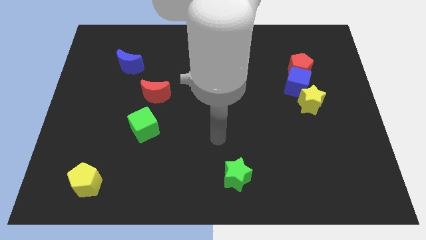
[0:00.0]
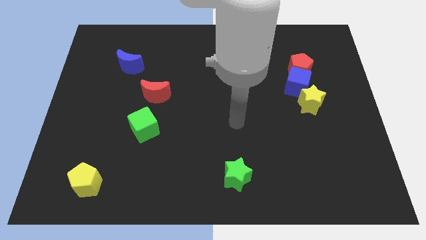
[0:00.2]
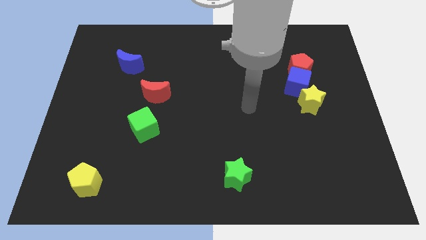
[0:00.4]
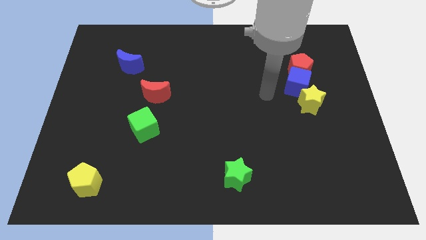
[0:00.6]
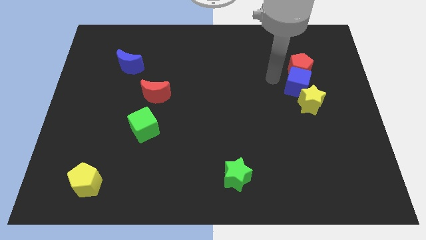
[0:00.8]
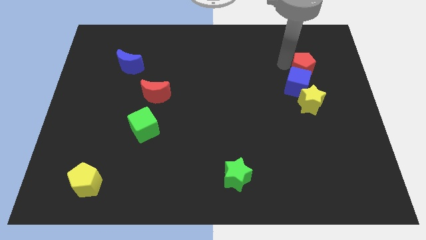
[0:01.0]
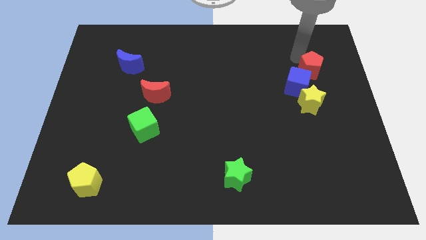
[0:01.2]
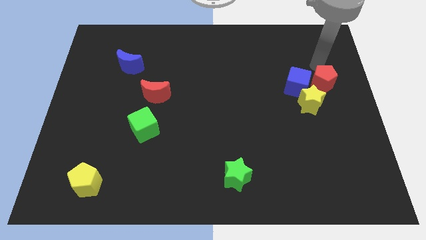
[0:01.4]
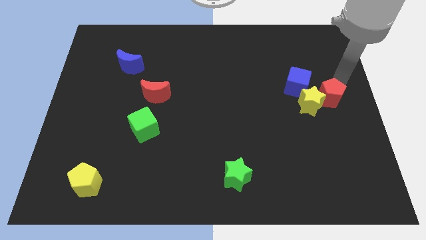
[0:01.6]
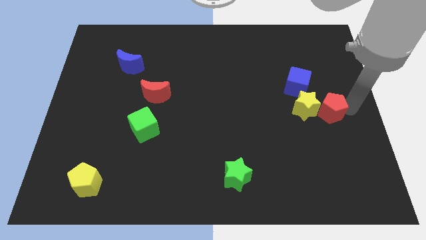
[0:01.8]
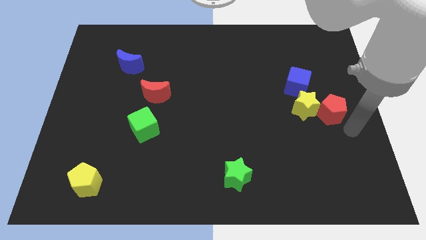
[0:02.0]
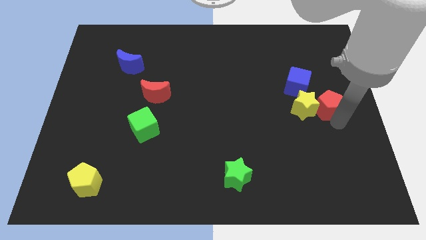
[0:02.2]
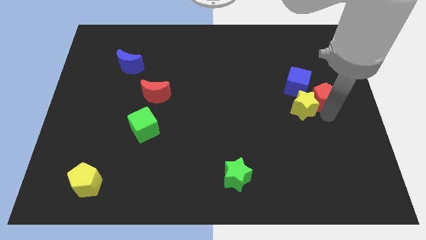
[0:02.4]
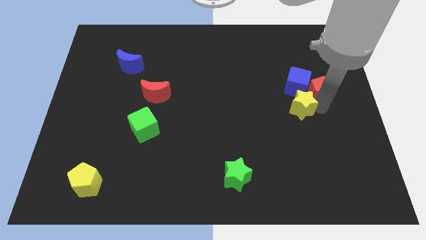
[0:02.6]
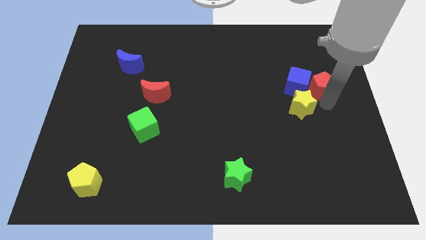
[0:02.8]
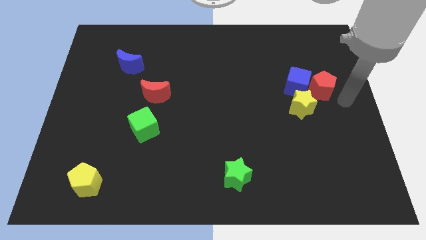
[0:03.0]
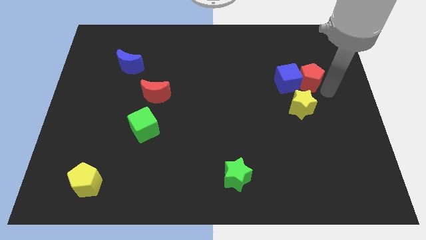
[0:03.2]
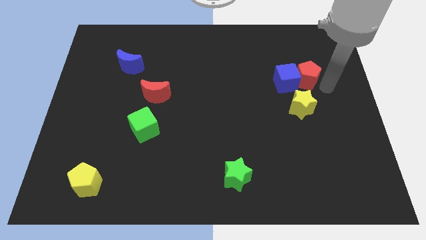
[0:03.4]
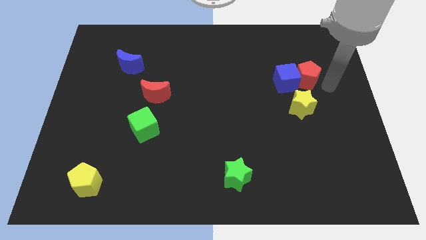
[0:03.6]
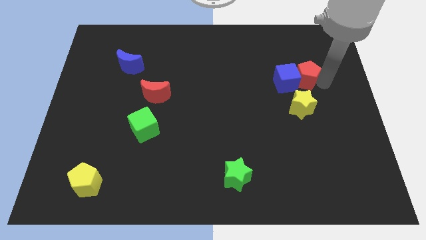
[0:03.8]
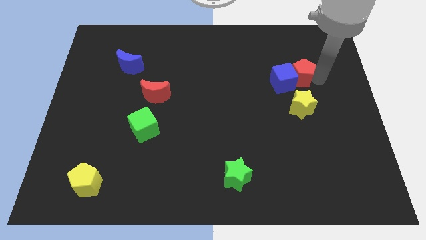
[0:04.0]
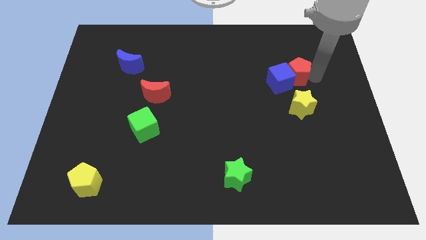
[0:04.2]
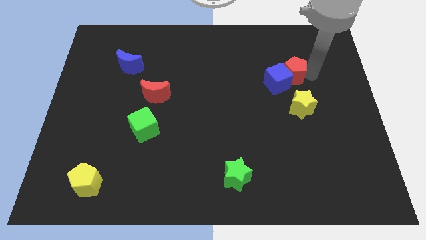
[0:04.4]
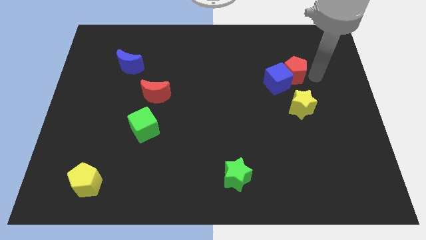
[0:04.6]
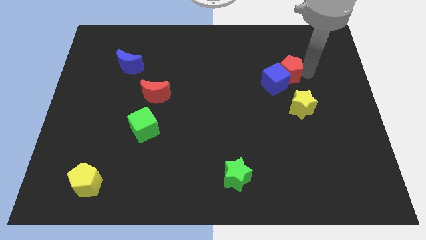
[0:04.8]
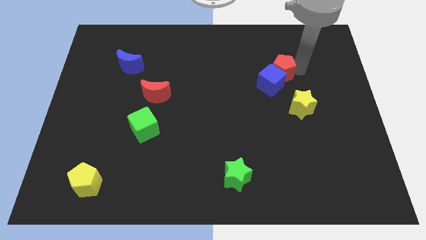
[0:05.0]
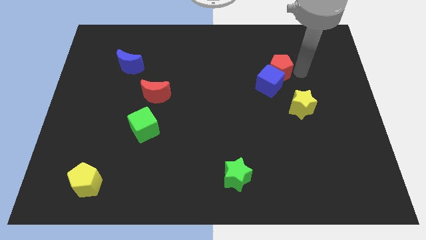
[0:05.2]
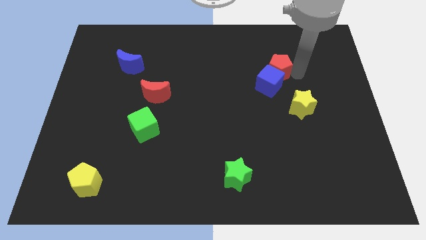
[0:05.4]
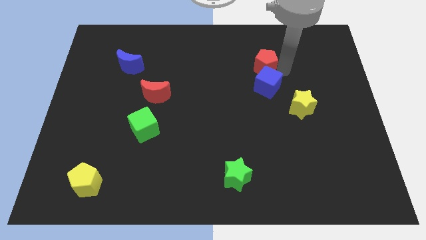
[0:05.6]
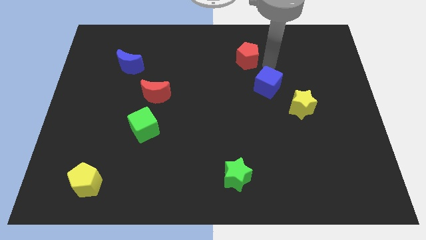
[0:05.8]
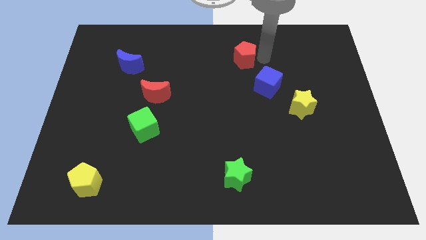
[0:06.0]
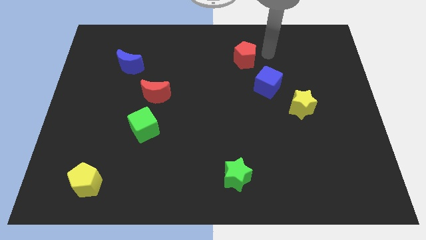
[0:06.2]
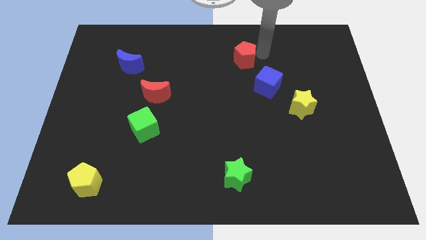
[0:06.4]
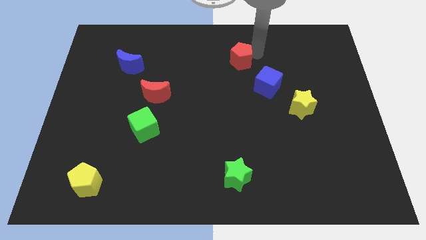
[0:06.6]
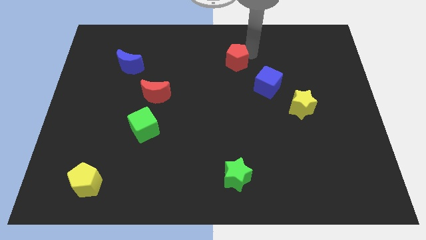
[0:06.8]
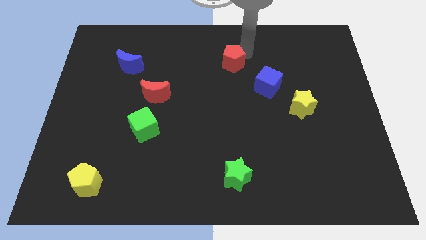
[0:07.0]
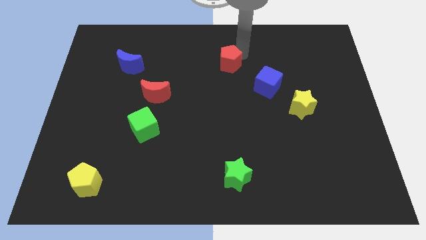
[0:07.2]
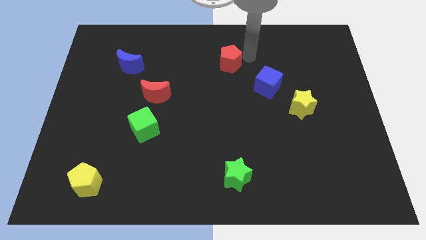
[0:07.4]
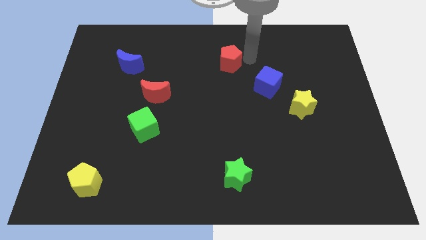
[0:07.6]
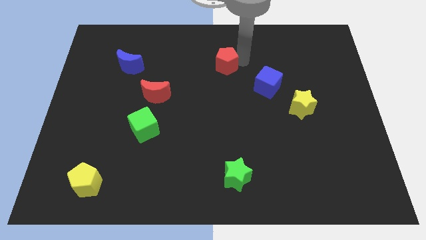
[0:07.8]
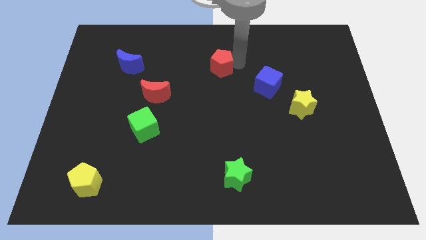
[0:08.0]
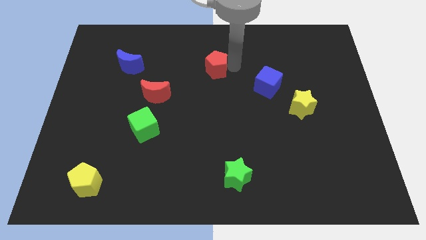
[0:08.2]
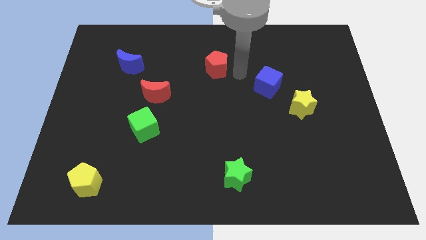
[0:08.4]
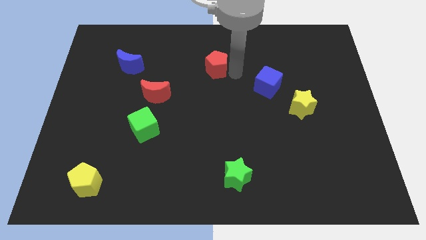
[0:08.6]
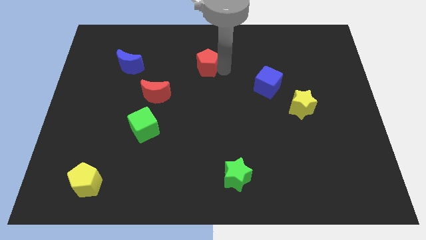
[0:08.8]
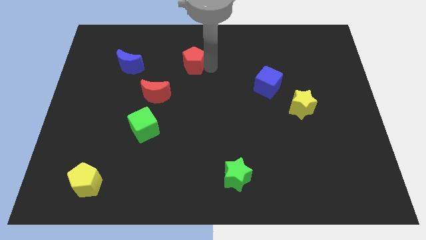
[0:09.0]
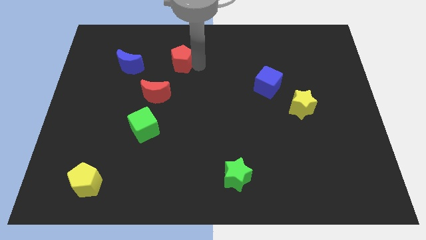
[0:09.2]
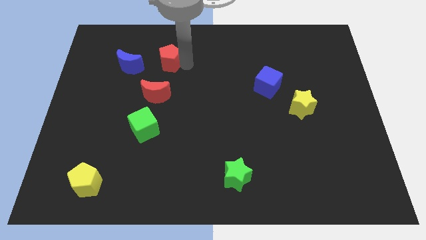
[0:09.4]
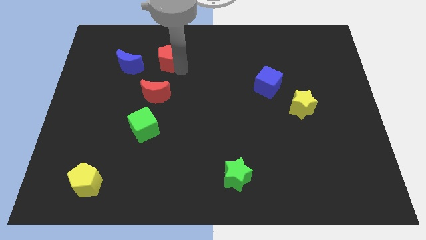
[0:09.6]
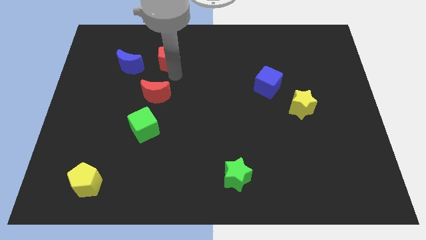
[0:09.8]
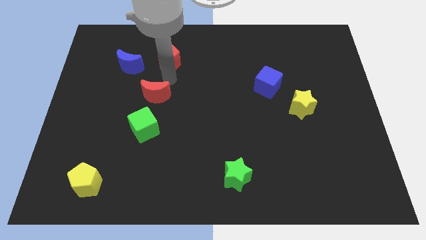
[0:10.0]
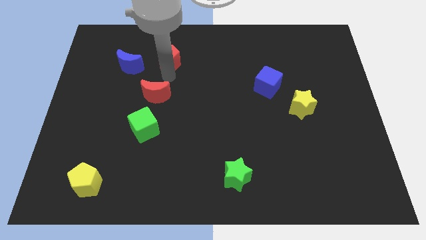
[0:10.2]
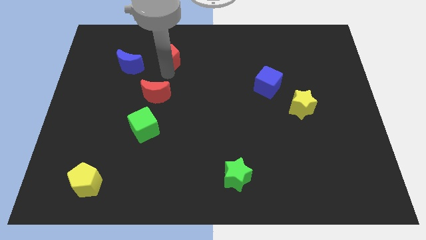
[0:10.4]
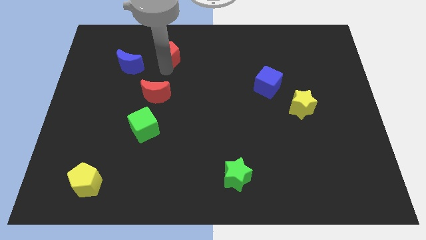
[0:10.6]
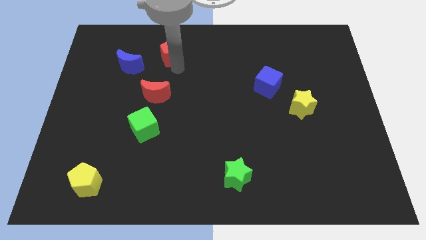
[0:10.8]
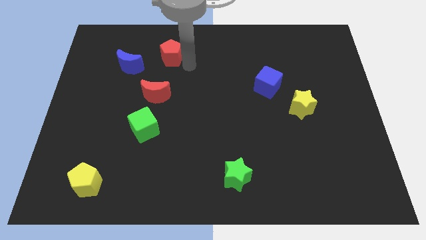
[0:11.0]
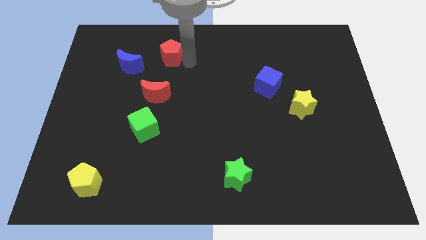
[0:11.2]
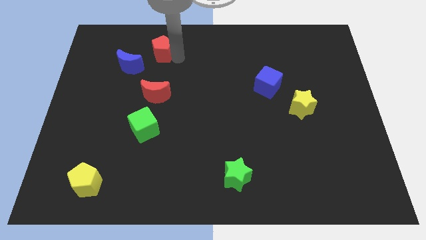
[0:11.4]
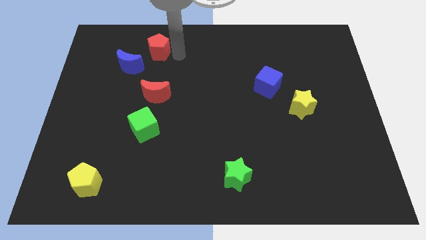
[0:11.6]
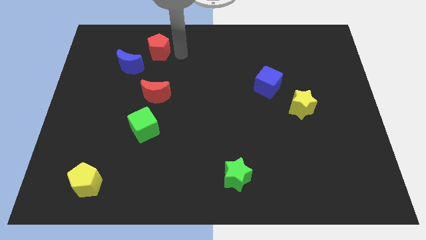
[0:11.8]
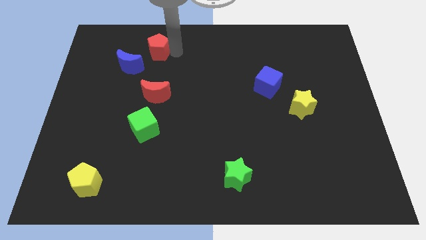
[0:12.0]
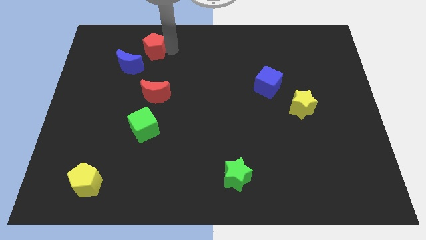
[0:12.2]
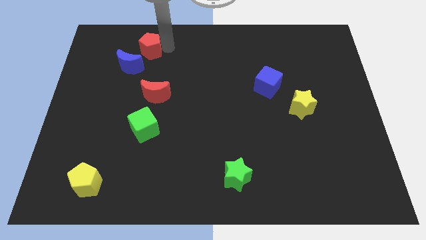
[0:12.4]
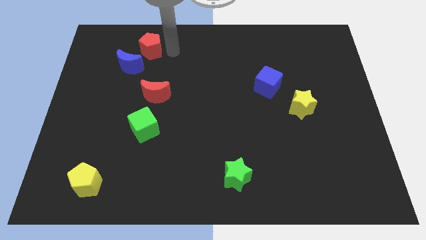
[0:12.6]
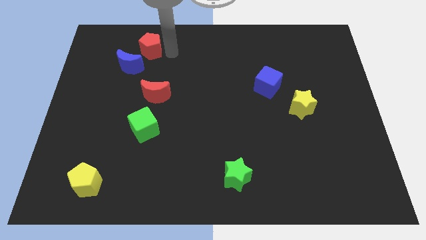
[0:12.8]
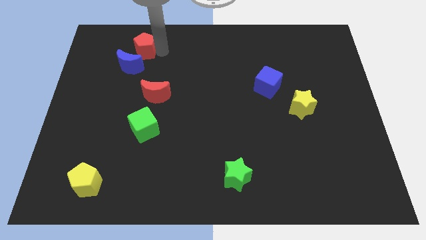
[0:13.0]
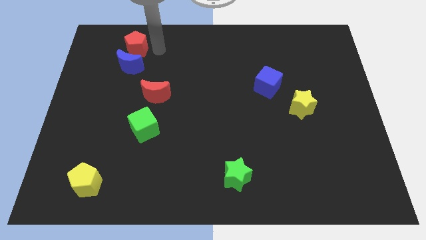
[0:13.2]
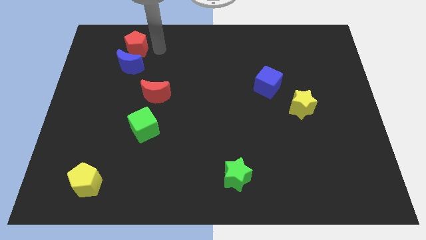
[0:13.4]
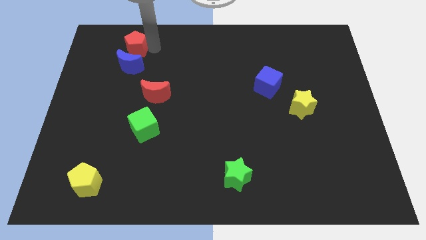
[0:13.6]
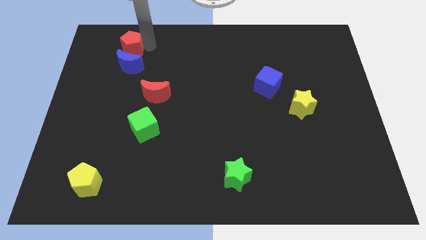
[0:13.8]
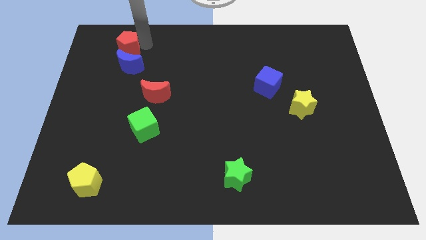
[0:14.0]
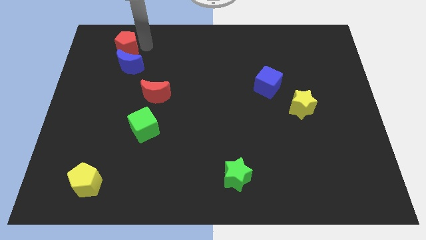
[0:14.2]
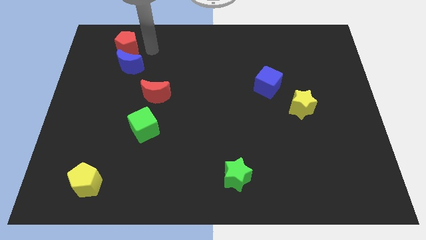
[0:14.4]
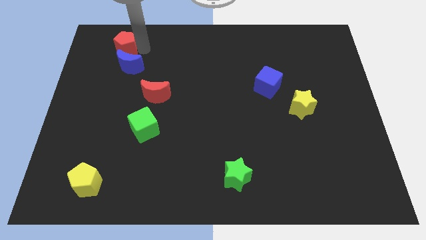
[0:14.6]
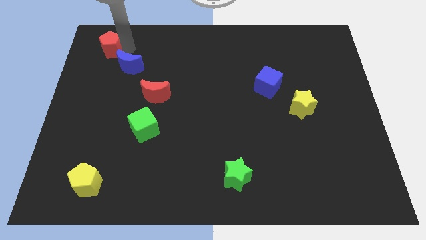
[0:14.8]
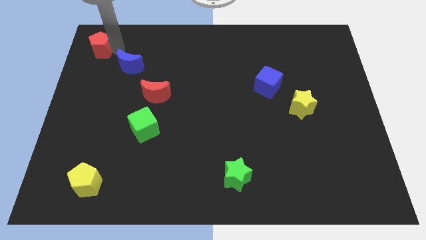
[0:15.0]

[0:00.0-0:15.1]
slide the red pentagon to the top left of the board
